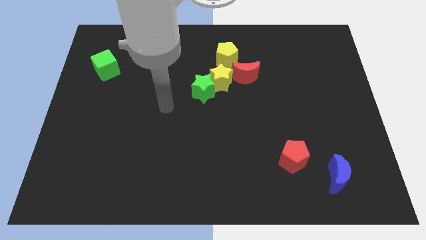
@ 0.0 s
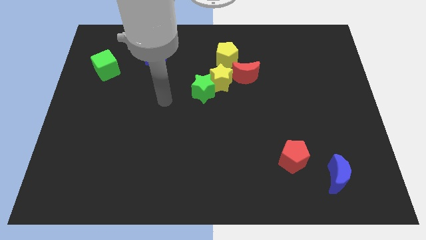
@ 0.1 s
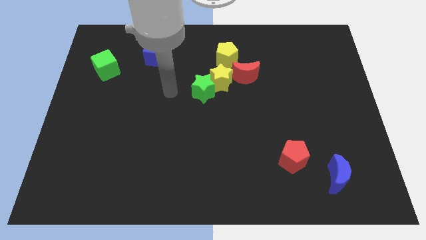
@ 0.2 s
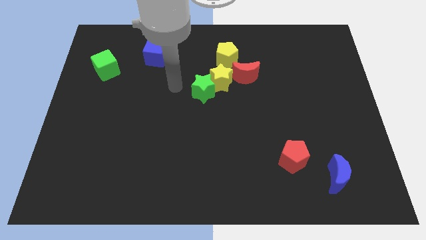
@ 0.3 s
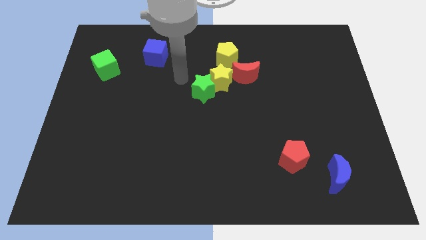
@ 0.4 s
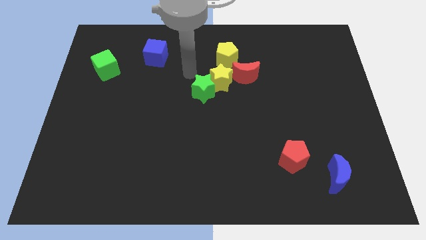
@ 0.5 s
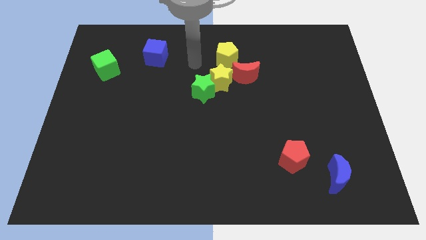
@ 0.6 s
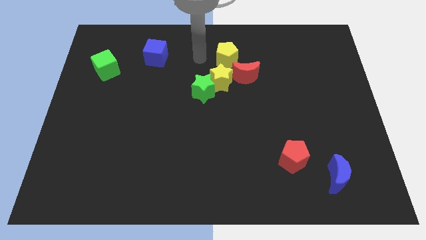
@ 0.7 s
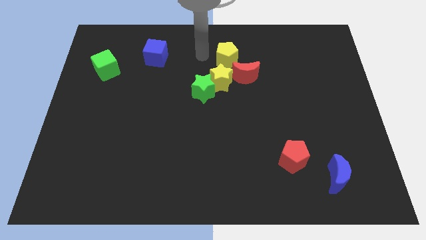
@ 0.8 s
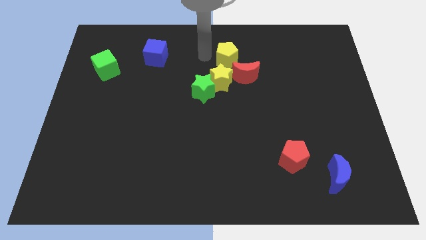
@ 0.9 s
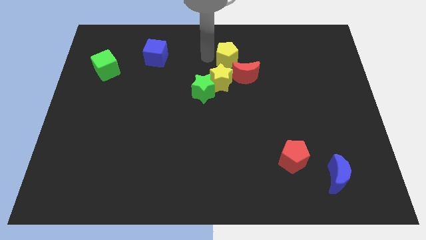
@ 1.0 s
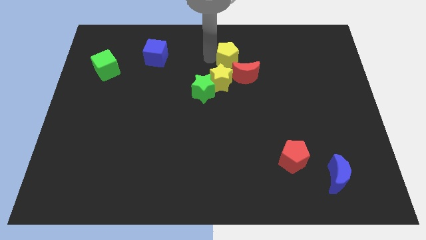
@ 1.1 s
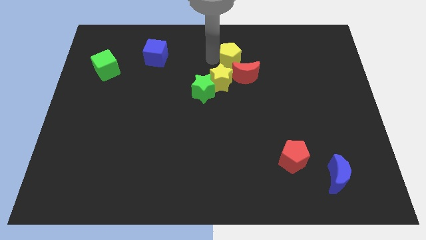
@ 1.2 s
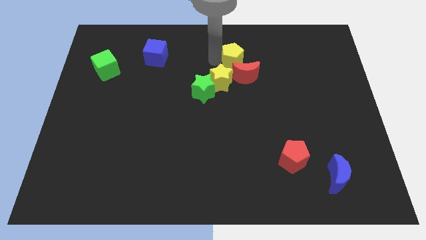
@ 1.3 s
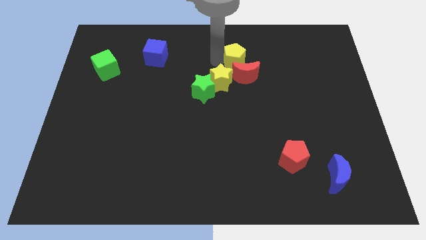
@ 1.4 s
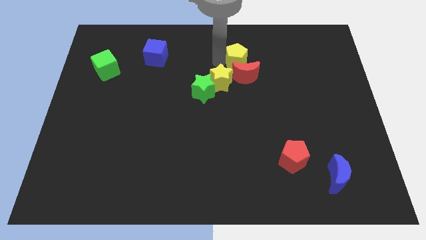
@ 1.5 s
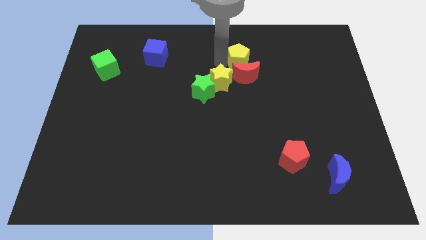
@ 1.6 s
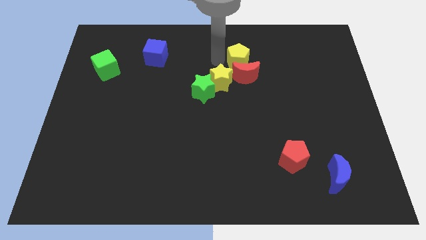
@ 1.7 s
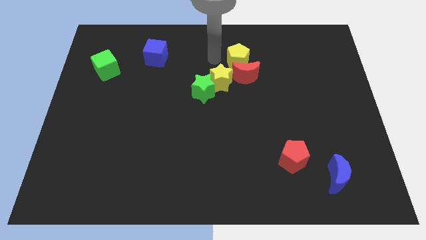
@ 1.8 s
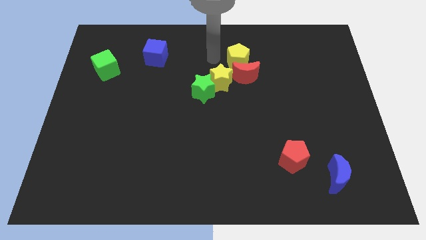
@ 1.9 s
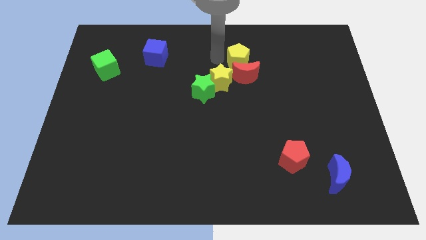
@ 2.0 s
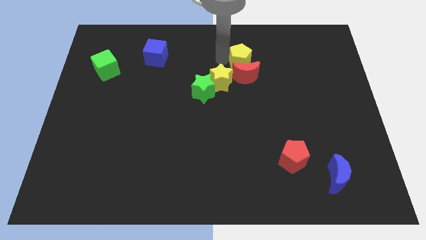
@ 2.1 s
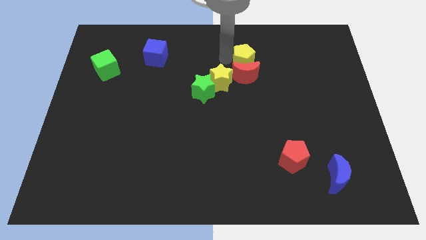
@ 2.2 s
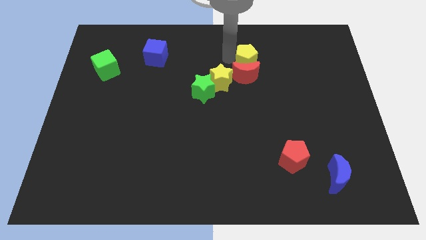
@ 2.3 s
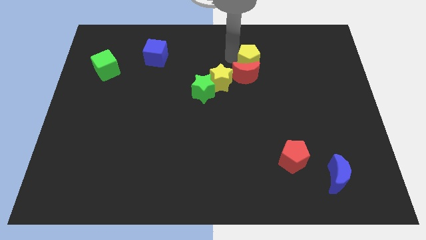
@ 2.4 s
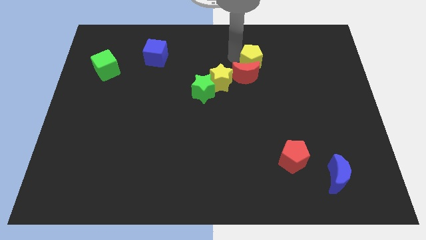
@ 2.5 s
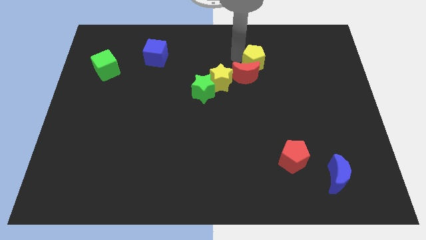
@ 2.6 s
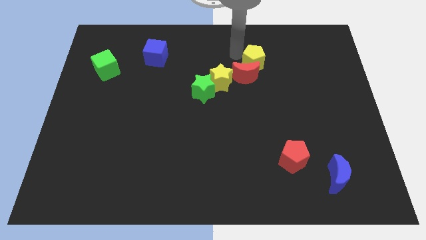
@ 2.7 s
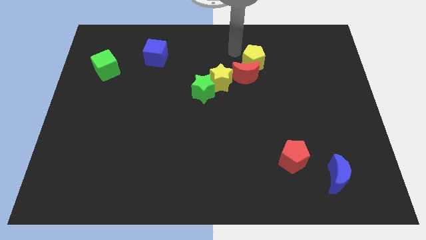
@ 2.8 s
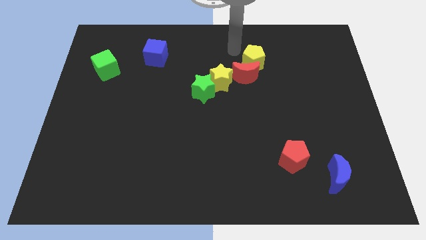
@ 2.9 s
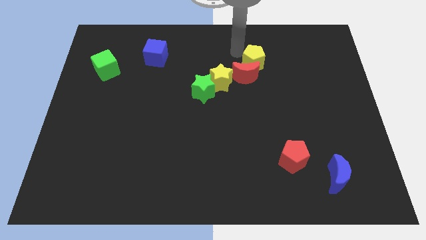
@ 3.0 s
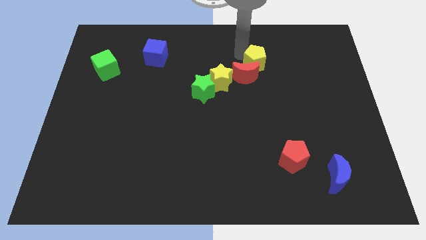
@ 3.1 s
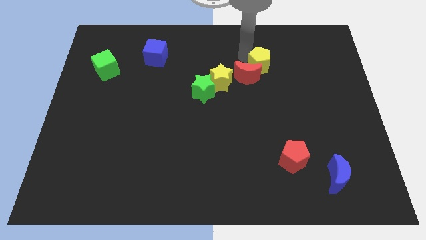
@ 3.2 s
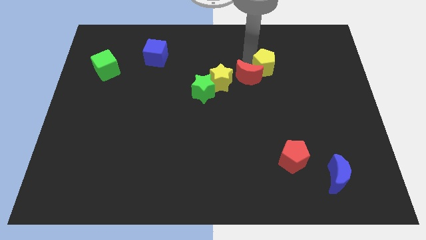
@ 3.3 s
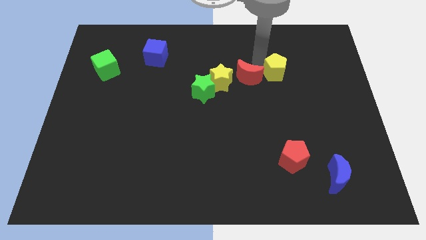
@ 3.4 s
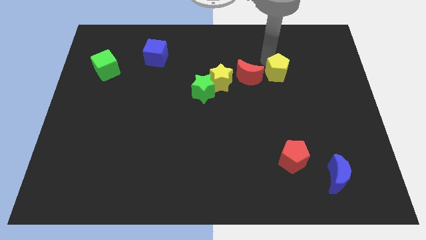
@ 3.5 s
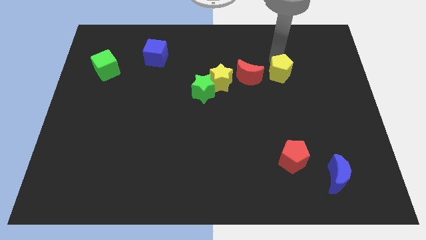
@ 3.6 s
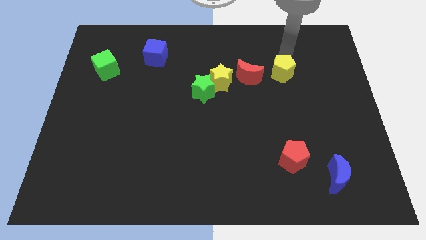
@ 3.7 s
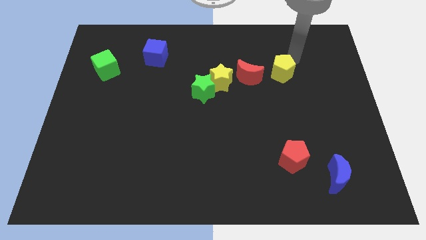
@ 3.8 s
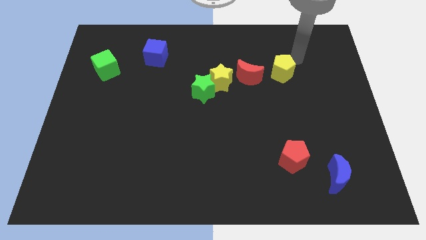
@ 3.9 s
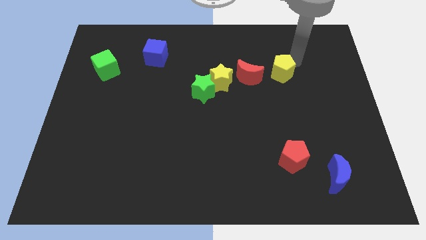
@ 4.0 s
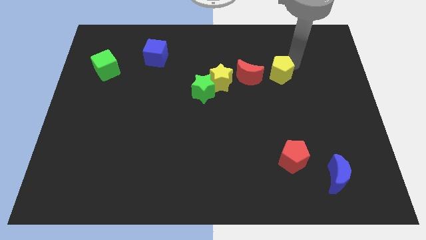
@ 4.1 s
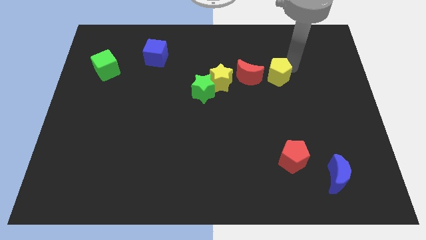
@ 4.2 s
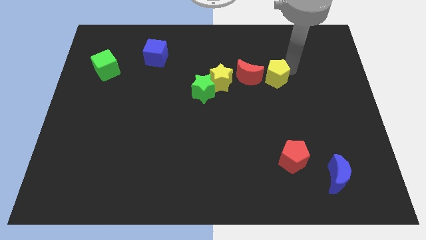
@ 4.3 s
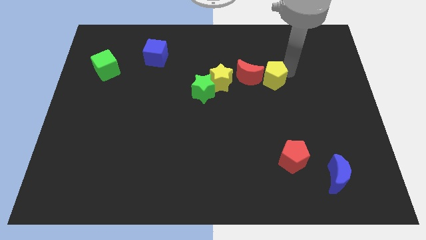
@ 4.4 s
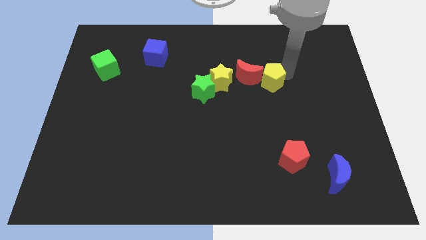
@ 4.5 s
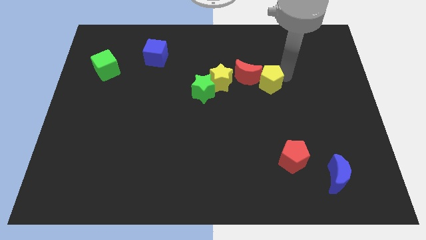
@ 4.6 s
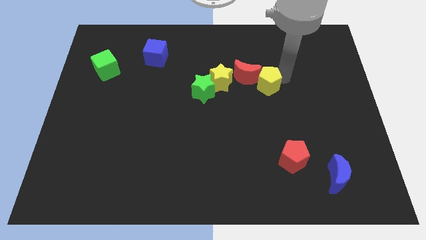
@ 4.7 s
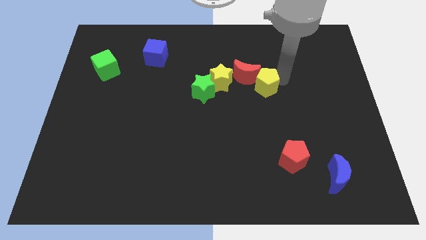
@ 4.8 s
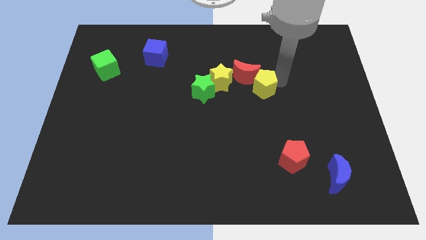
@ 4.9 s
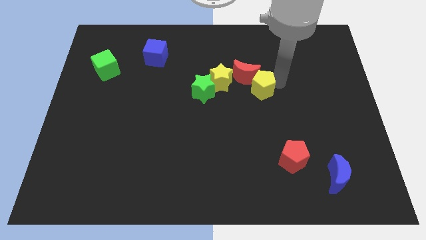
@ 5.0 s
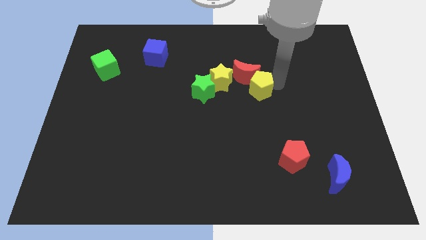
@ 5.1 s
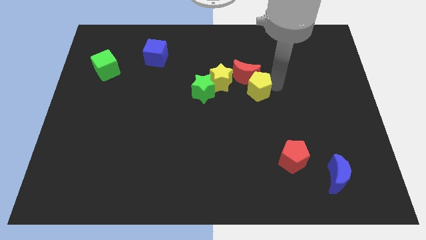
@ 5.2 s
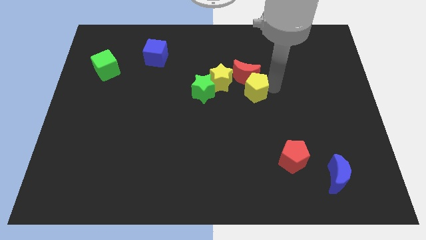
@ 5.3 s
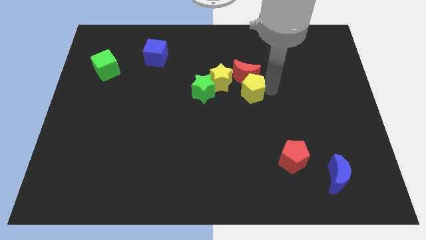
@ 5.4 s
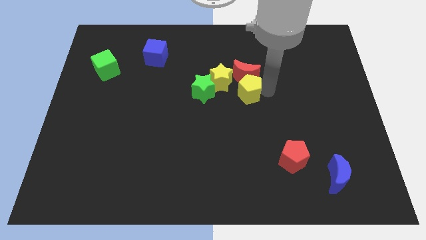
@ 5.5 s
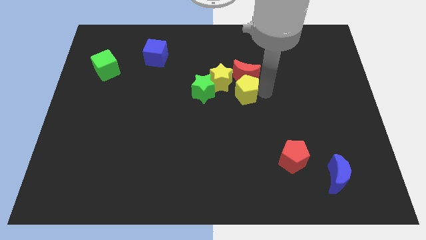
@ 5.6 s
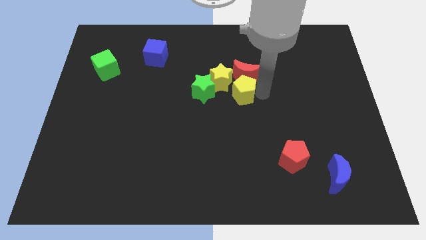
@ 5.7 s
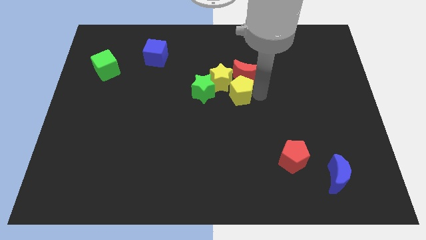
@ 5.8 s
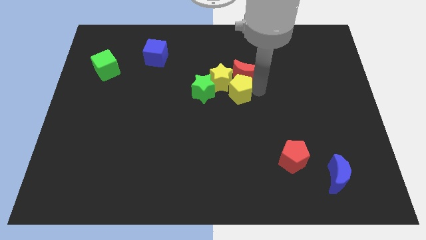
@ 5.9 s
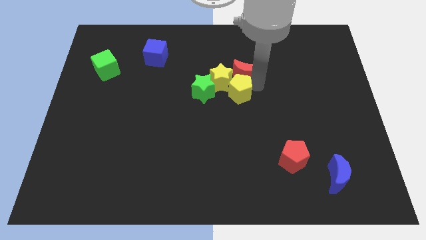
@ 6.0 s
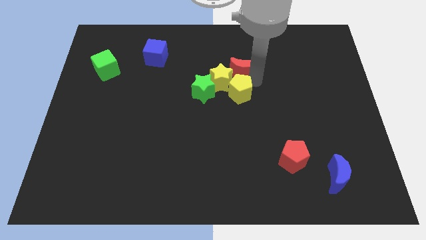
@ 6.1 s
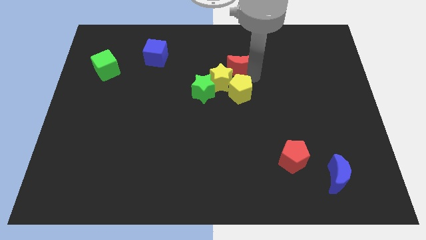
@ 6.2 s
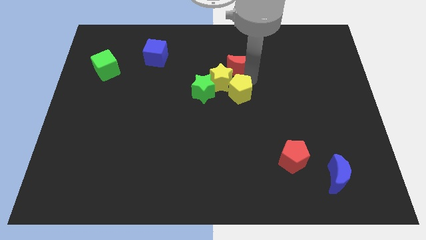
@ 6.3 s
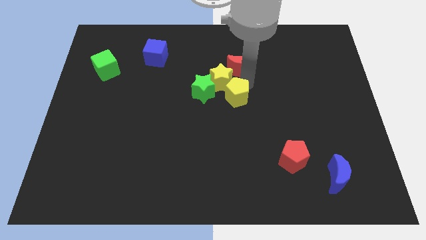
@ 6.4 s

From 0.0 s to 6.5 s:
move the yellow pentagon to the bottom right side of the green star

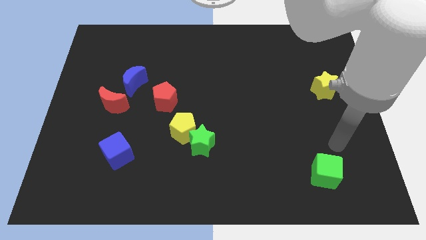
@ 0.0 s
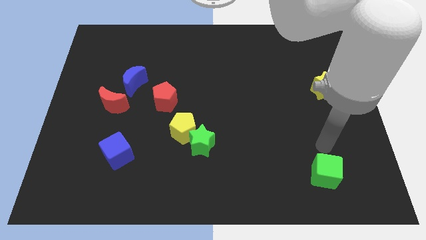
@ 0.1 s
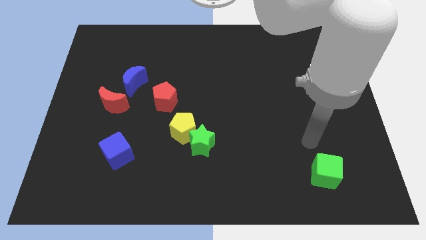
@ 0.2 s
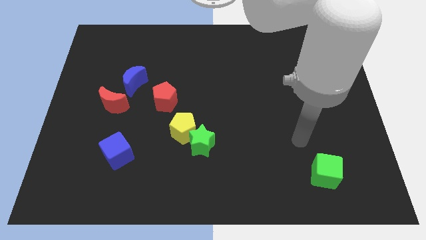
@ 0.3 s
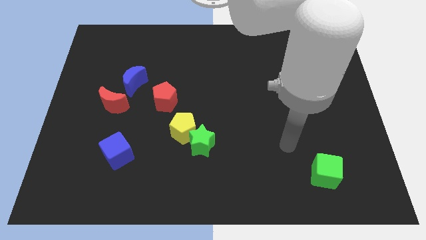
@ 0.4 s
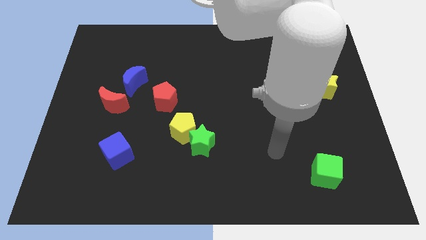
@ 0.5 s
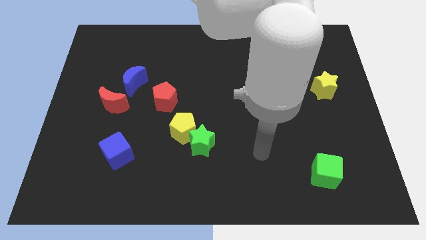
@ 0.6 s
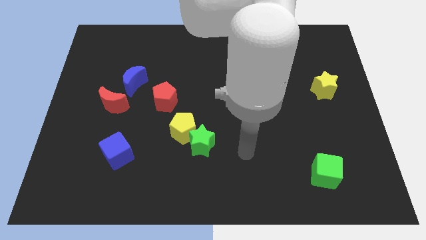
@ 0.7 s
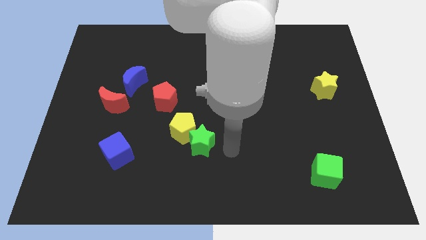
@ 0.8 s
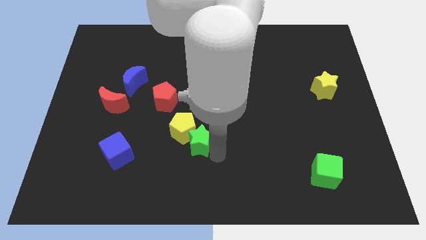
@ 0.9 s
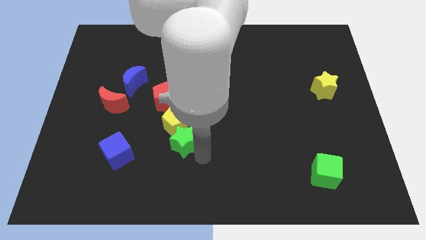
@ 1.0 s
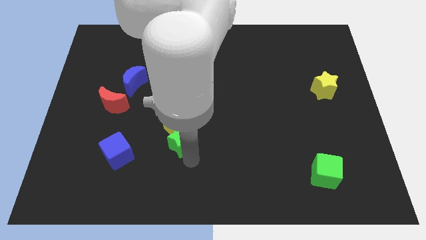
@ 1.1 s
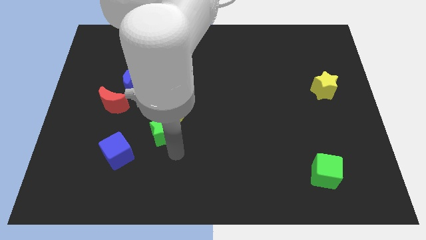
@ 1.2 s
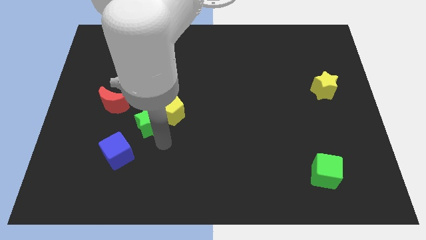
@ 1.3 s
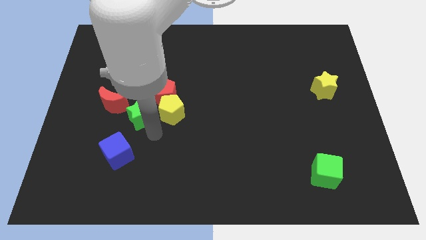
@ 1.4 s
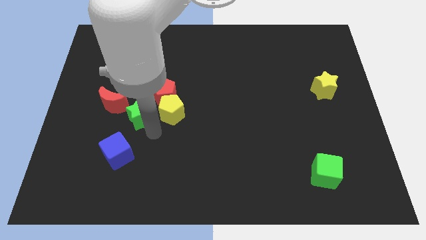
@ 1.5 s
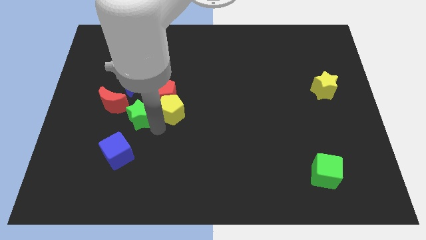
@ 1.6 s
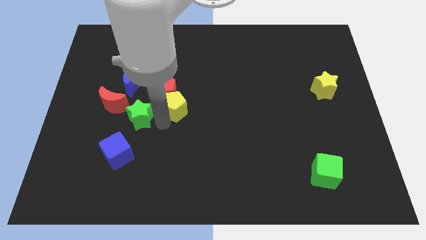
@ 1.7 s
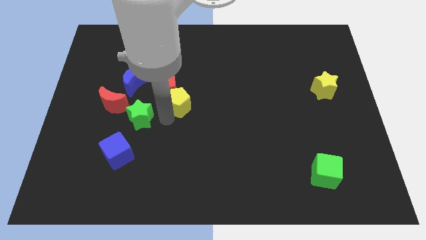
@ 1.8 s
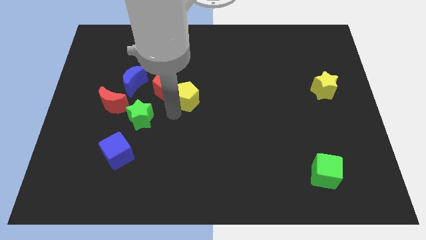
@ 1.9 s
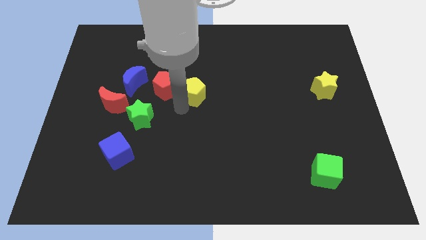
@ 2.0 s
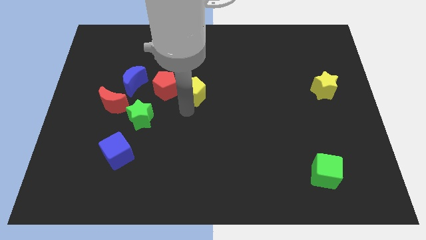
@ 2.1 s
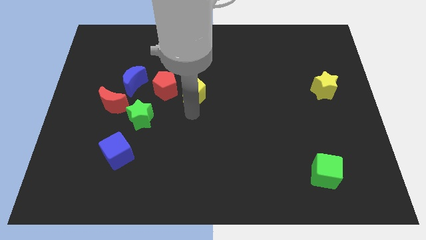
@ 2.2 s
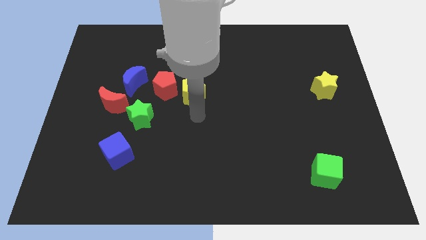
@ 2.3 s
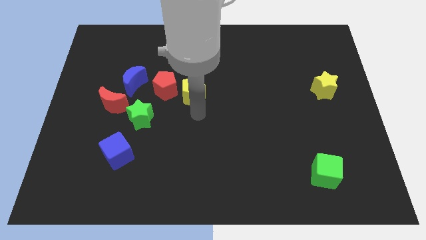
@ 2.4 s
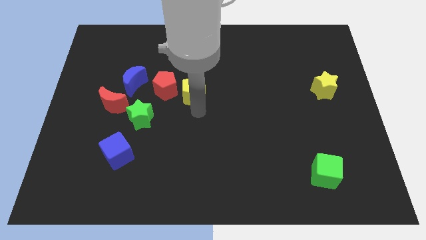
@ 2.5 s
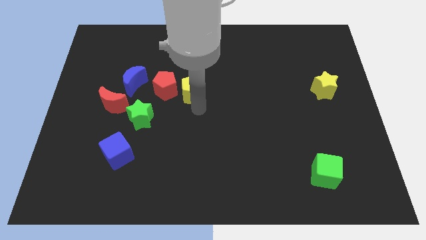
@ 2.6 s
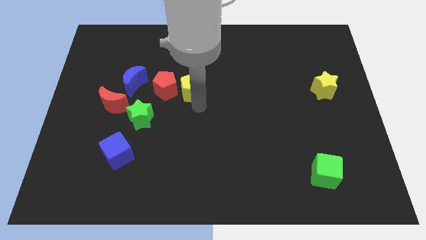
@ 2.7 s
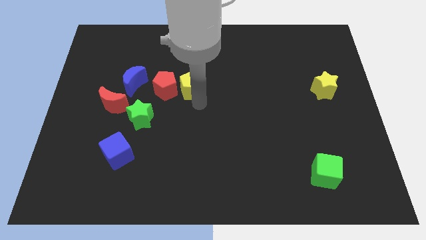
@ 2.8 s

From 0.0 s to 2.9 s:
put the yellow pentagon diagonally up and to the right of the red pentagon
